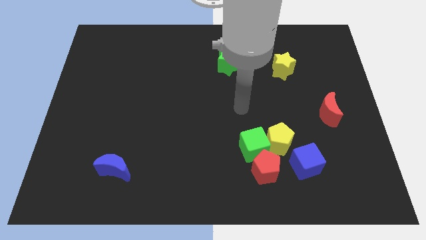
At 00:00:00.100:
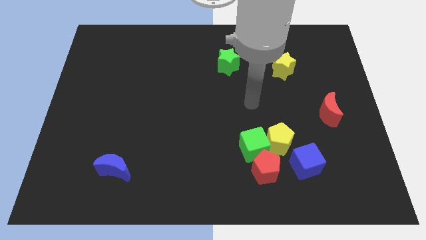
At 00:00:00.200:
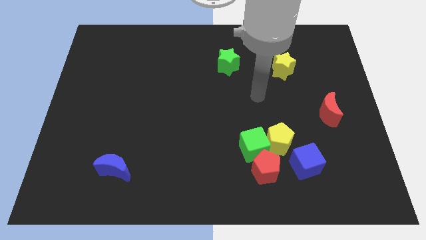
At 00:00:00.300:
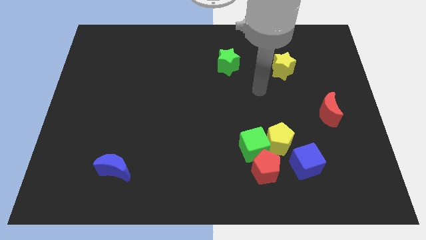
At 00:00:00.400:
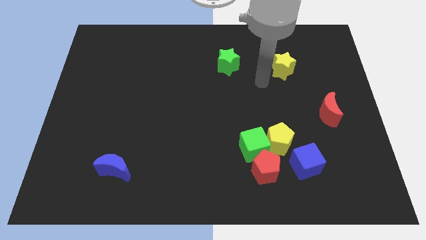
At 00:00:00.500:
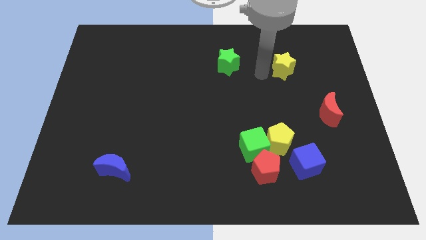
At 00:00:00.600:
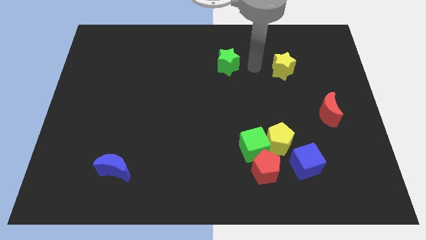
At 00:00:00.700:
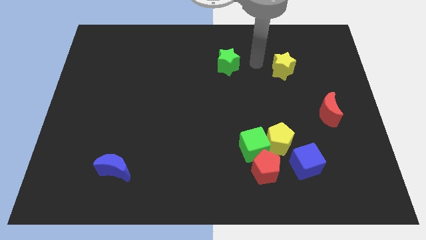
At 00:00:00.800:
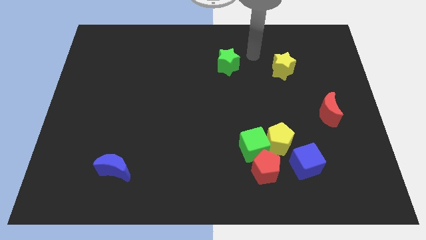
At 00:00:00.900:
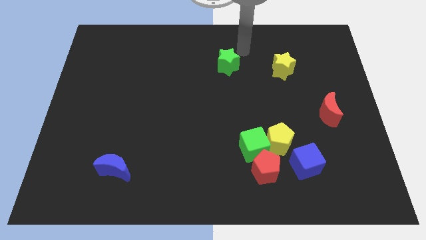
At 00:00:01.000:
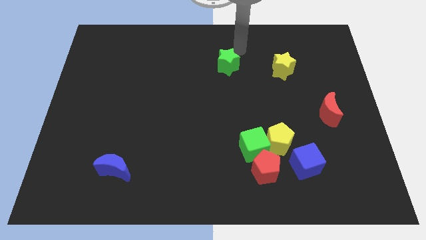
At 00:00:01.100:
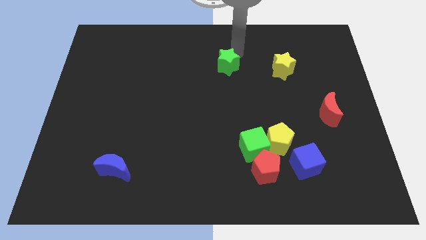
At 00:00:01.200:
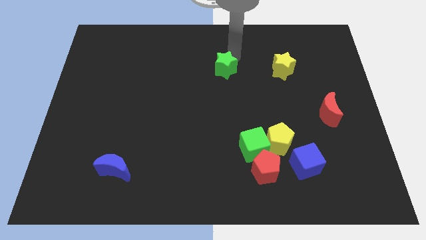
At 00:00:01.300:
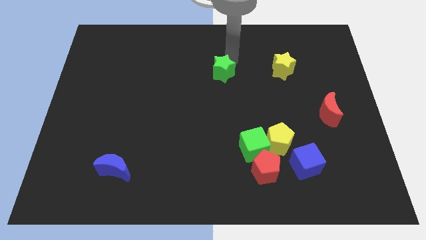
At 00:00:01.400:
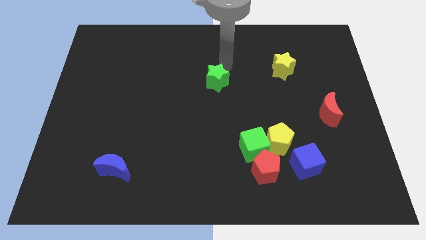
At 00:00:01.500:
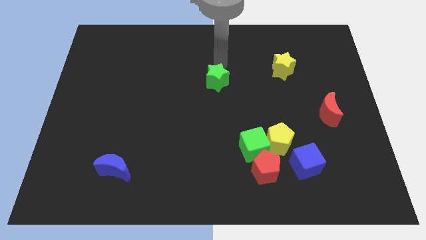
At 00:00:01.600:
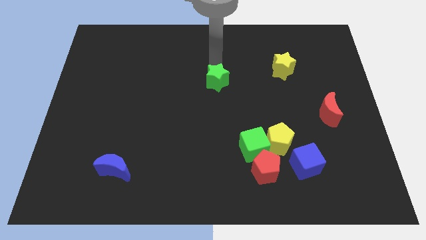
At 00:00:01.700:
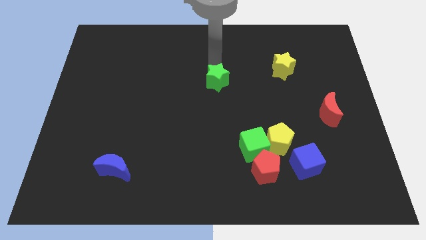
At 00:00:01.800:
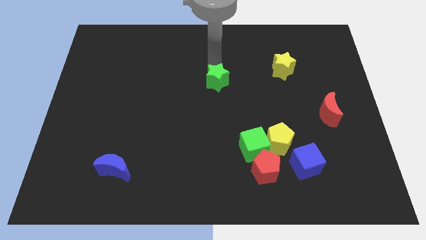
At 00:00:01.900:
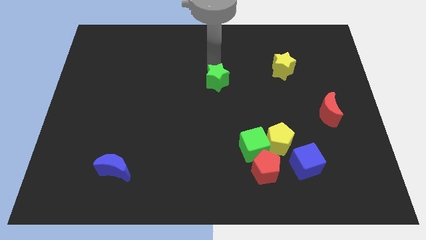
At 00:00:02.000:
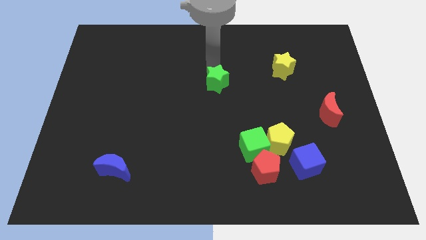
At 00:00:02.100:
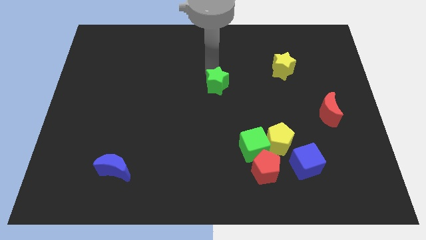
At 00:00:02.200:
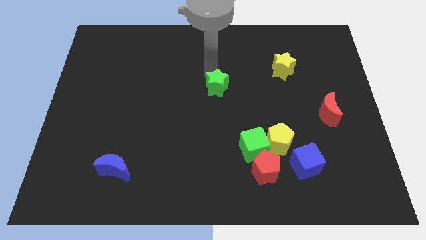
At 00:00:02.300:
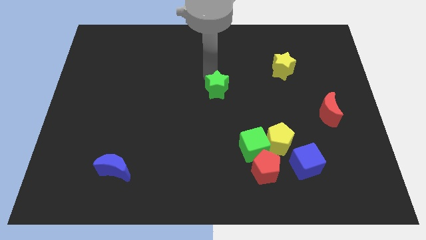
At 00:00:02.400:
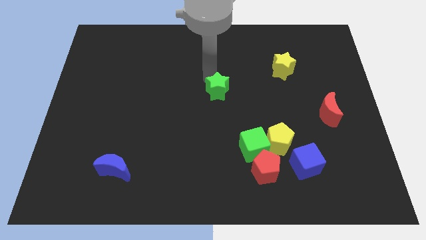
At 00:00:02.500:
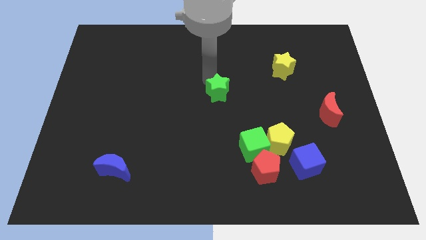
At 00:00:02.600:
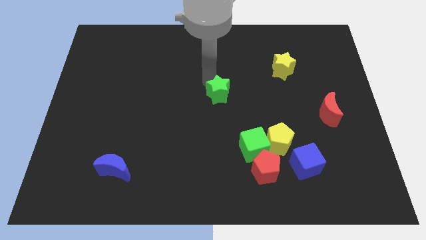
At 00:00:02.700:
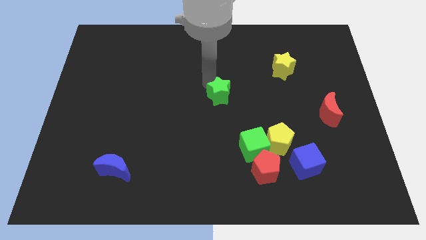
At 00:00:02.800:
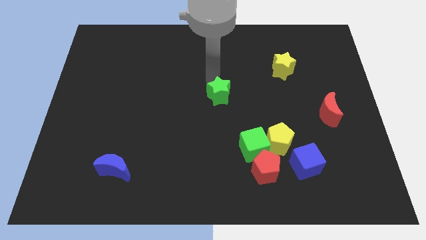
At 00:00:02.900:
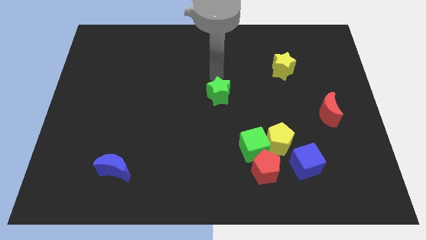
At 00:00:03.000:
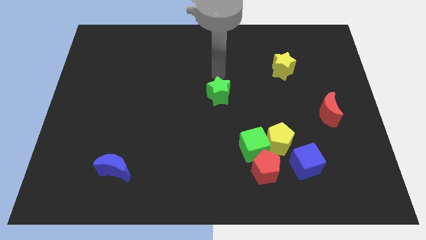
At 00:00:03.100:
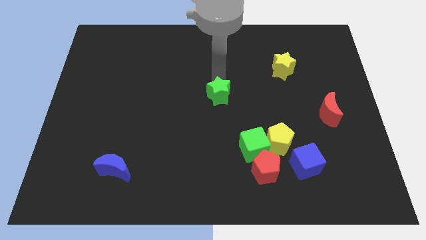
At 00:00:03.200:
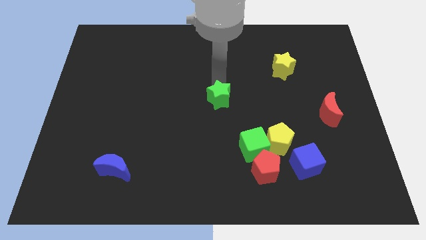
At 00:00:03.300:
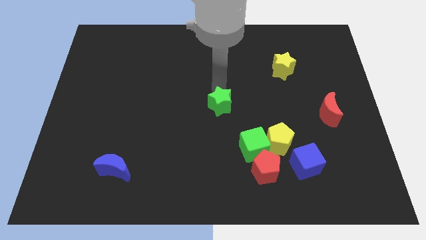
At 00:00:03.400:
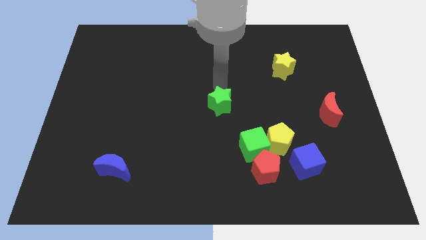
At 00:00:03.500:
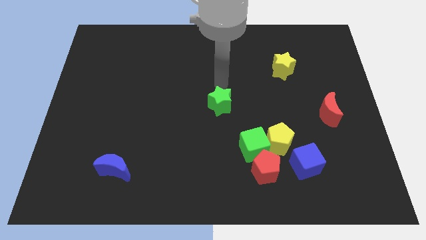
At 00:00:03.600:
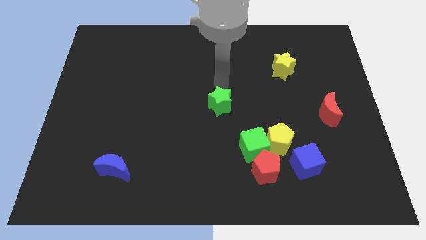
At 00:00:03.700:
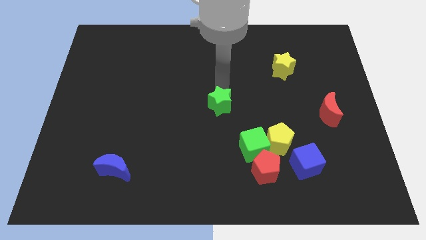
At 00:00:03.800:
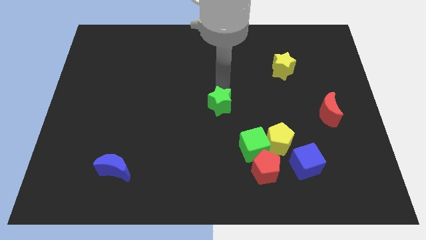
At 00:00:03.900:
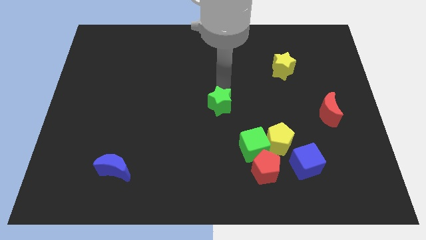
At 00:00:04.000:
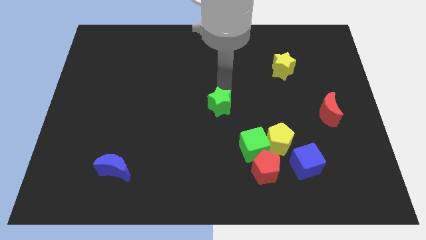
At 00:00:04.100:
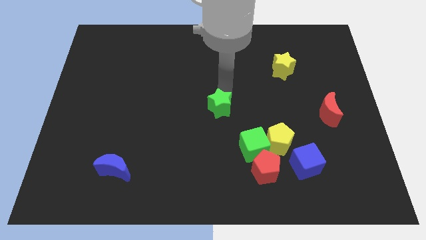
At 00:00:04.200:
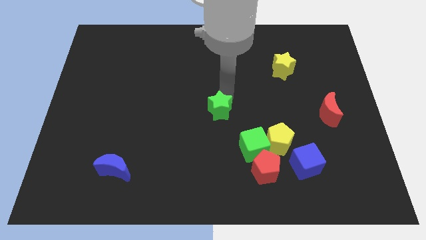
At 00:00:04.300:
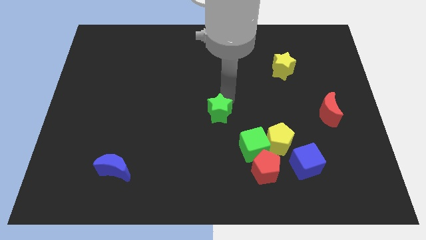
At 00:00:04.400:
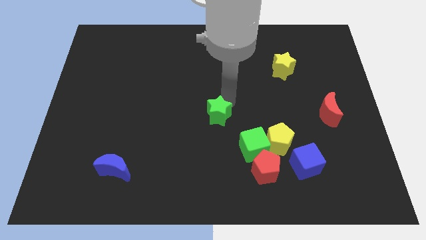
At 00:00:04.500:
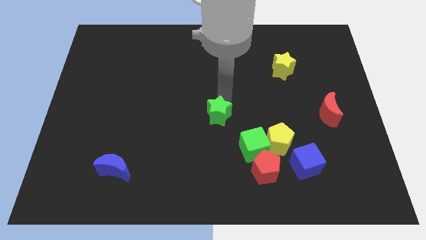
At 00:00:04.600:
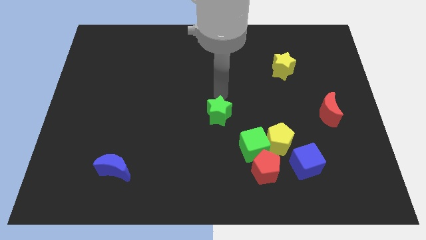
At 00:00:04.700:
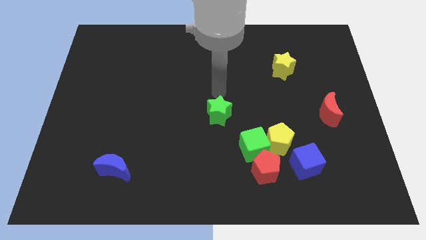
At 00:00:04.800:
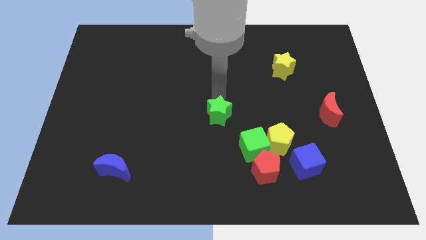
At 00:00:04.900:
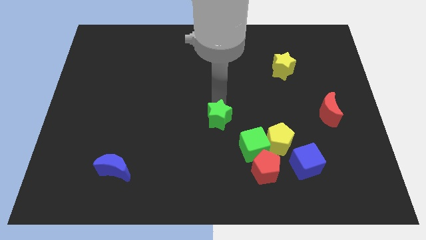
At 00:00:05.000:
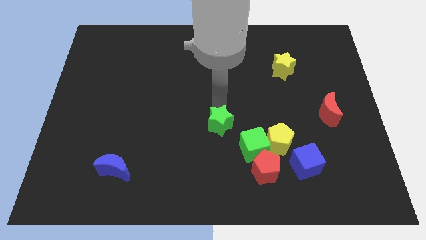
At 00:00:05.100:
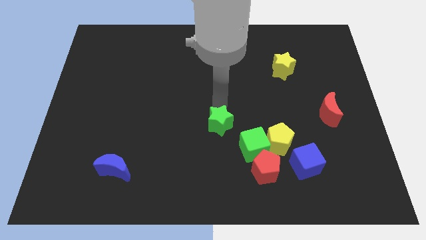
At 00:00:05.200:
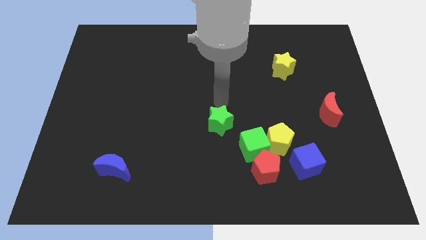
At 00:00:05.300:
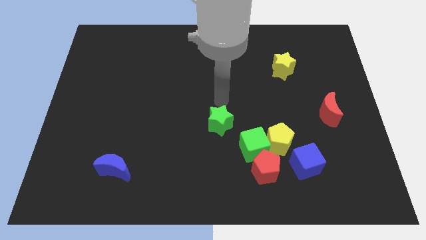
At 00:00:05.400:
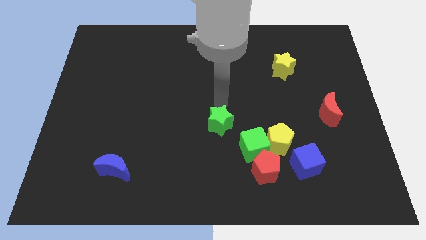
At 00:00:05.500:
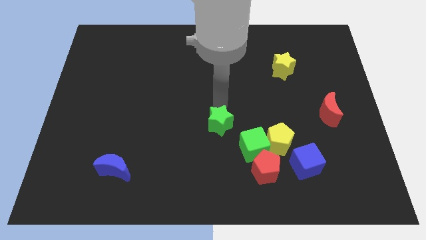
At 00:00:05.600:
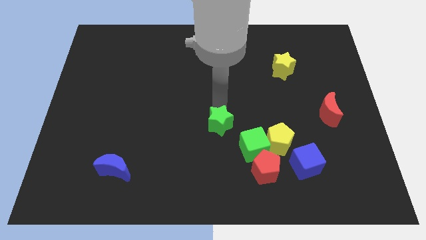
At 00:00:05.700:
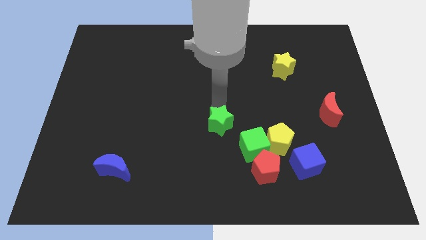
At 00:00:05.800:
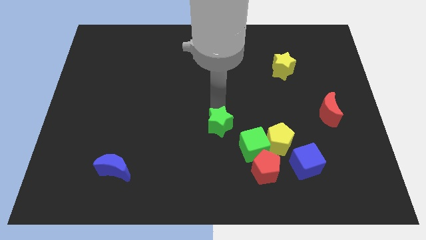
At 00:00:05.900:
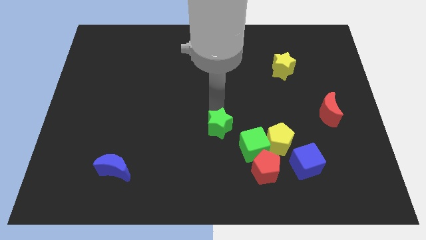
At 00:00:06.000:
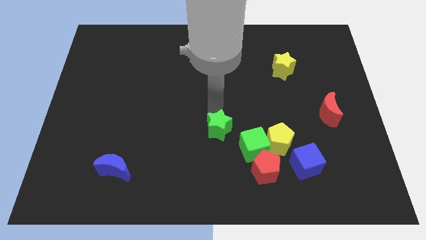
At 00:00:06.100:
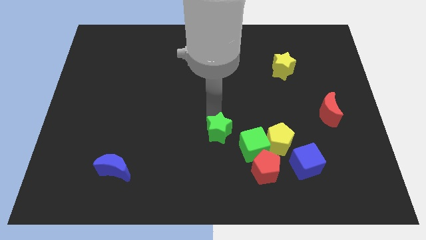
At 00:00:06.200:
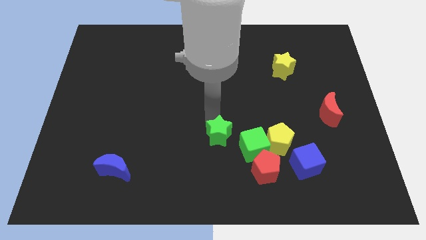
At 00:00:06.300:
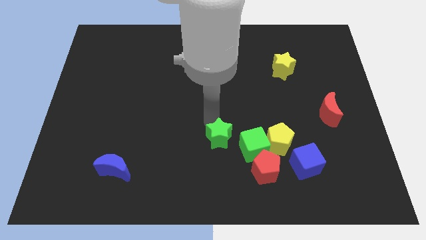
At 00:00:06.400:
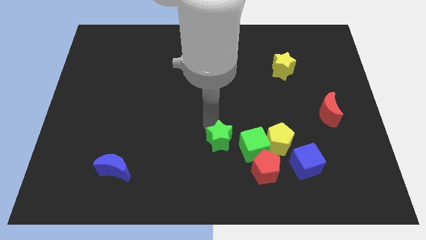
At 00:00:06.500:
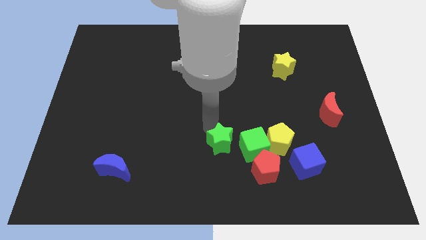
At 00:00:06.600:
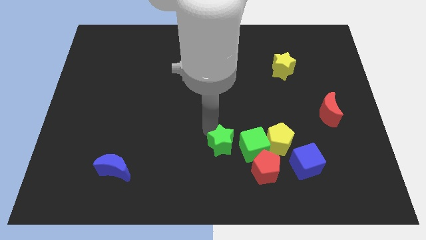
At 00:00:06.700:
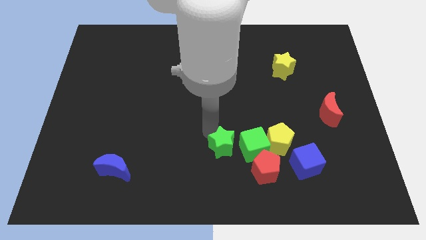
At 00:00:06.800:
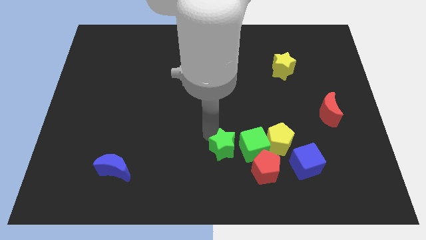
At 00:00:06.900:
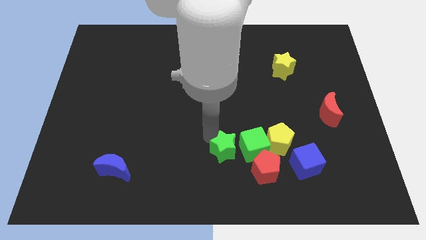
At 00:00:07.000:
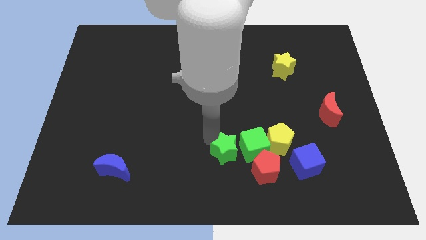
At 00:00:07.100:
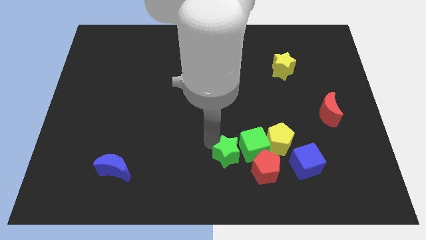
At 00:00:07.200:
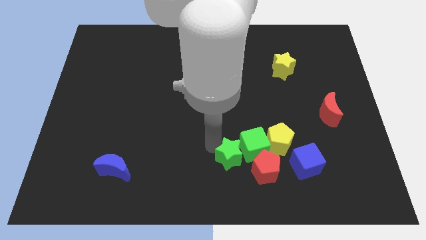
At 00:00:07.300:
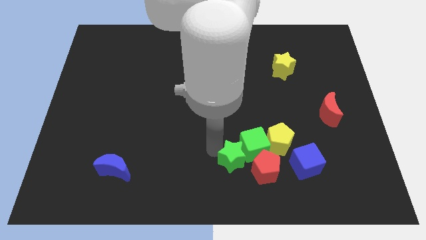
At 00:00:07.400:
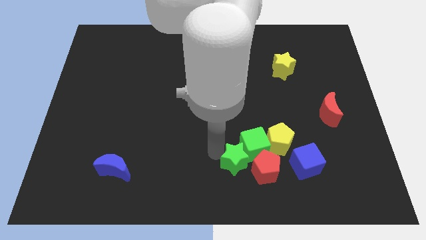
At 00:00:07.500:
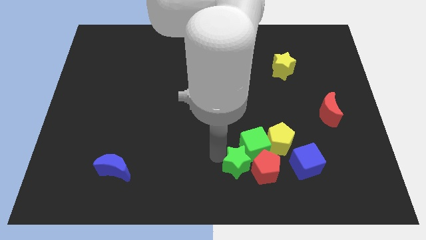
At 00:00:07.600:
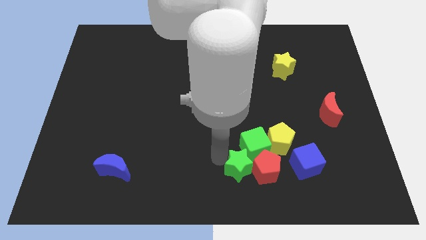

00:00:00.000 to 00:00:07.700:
slide the green star next to the red pentagon
